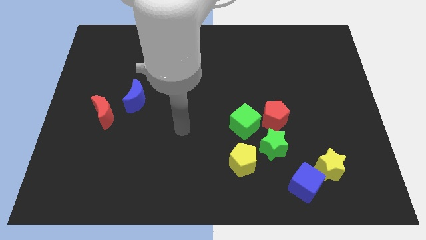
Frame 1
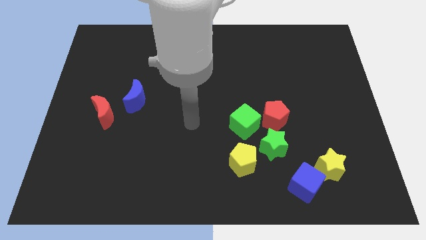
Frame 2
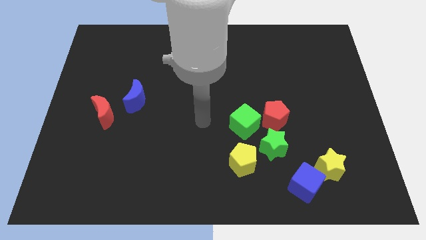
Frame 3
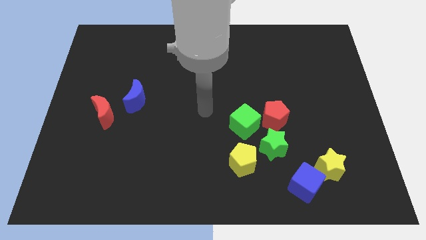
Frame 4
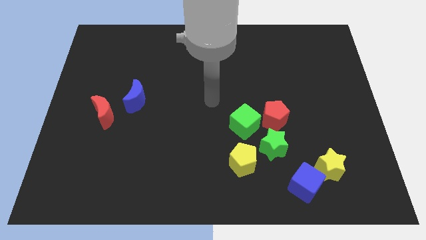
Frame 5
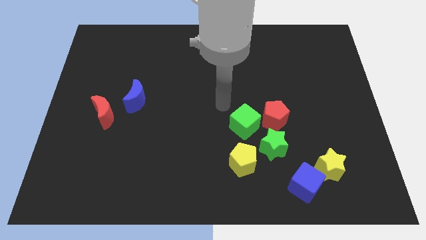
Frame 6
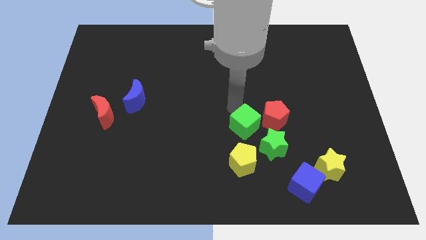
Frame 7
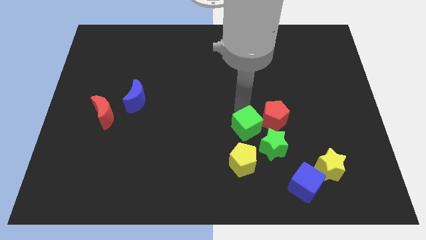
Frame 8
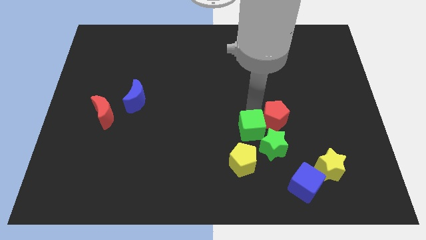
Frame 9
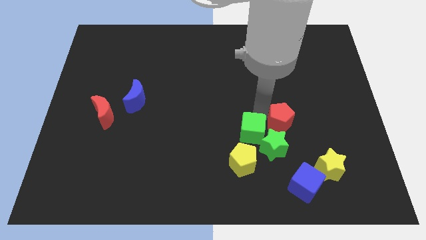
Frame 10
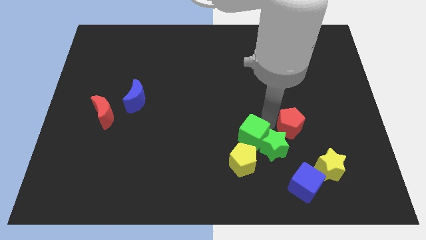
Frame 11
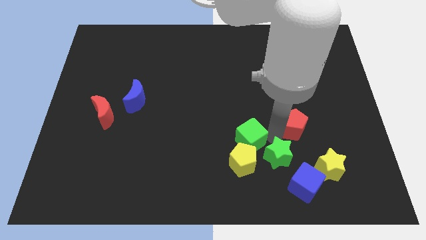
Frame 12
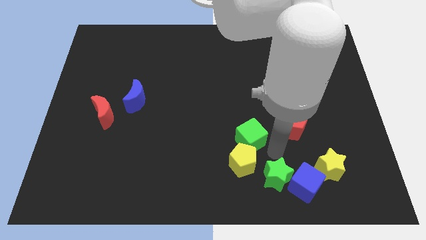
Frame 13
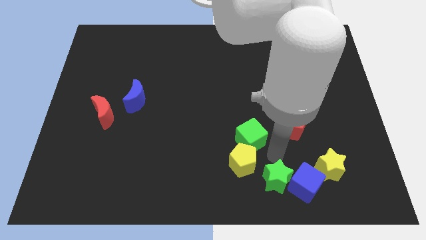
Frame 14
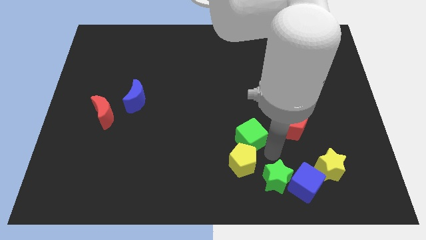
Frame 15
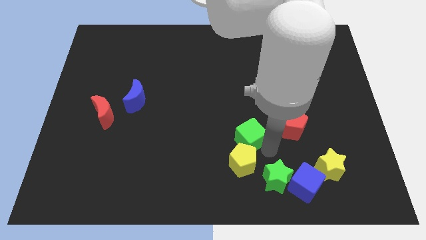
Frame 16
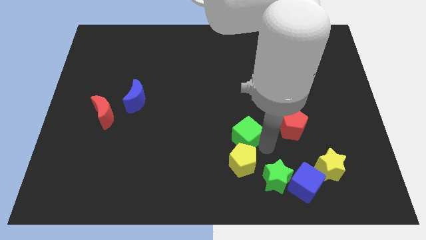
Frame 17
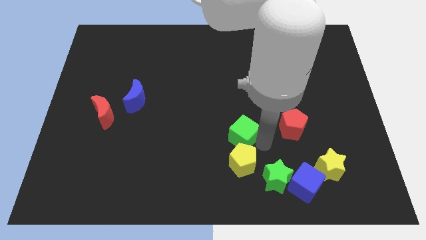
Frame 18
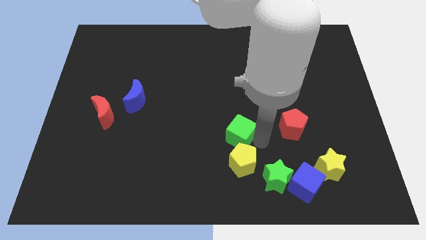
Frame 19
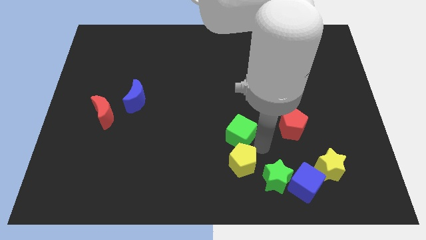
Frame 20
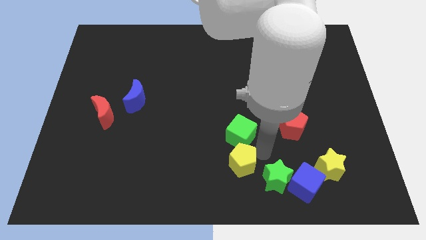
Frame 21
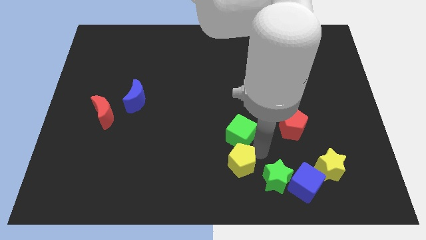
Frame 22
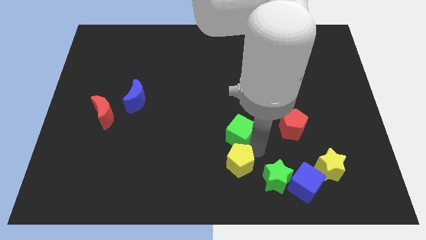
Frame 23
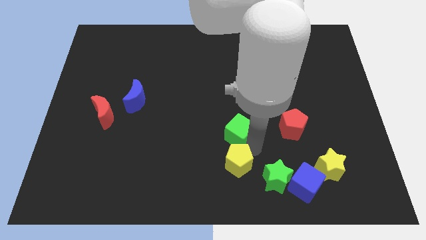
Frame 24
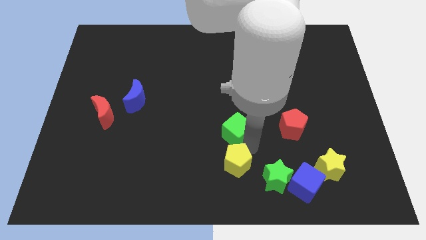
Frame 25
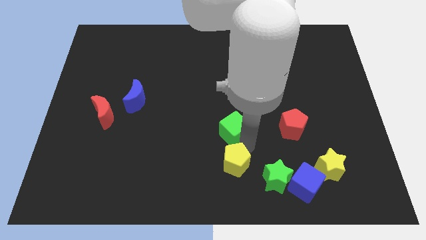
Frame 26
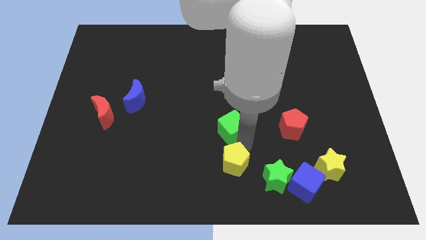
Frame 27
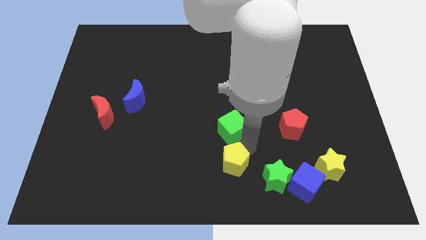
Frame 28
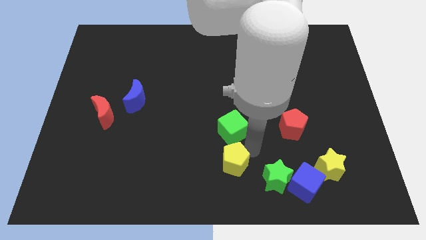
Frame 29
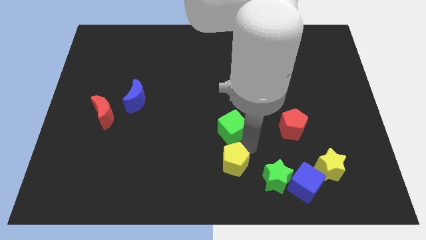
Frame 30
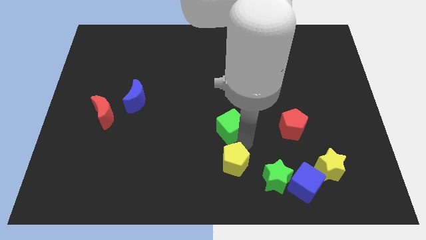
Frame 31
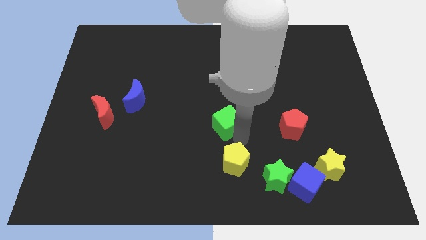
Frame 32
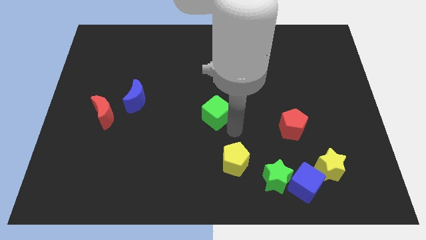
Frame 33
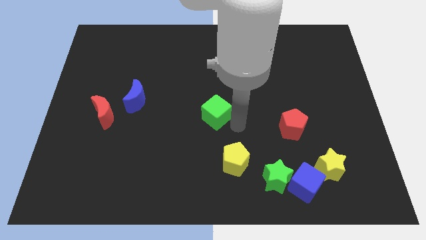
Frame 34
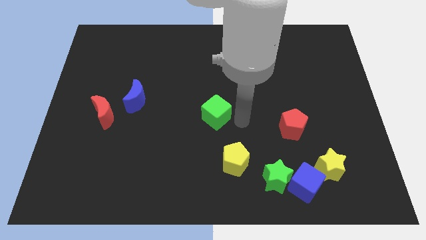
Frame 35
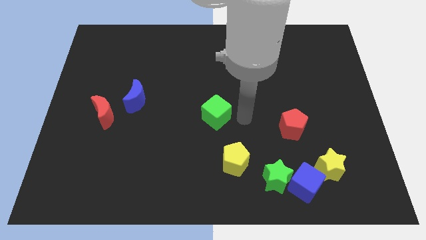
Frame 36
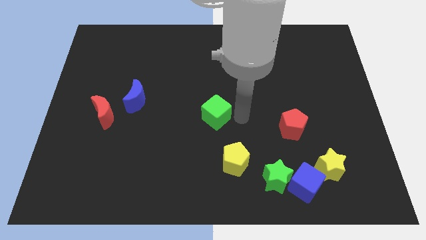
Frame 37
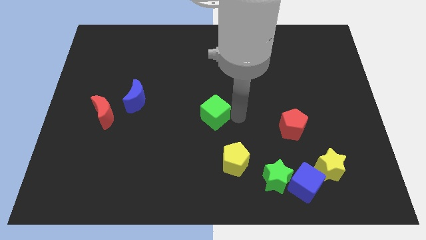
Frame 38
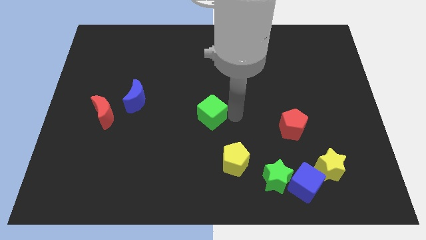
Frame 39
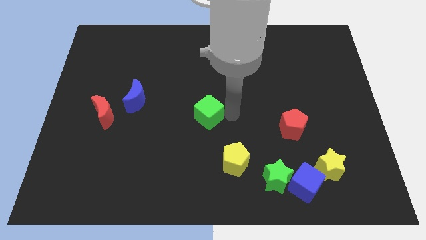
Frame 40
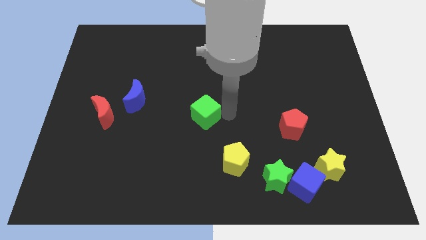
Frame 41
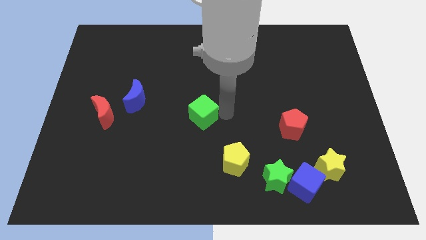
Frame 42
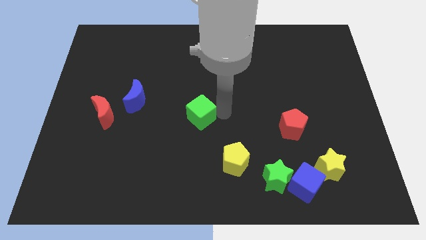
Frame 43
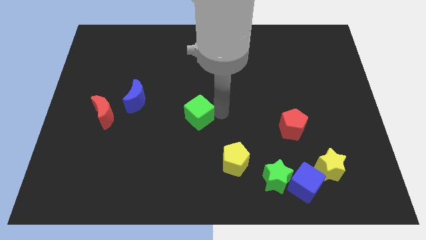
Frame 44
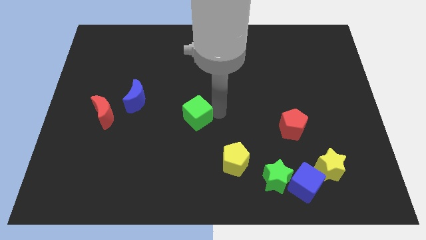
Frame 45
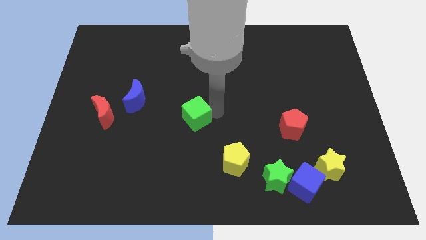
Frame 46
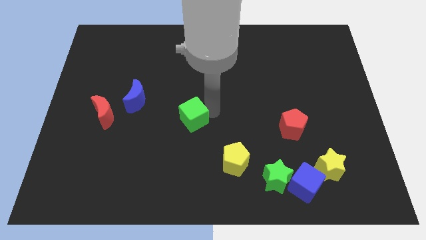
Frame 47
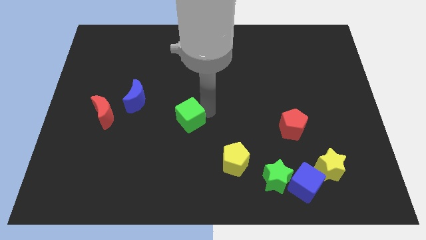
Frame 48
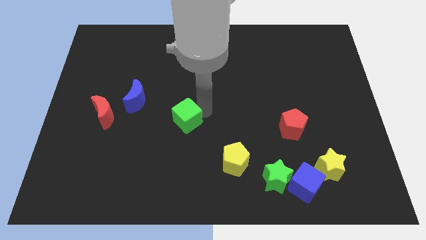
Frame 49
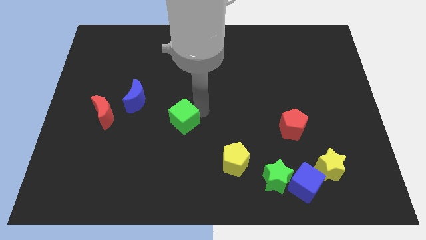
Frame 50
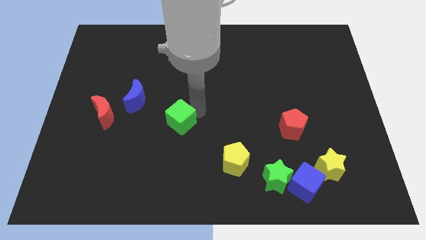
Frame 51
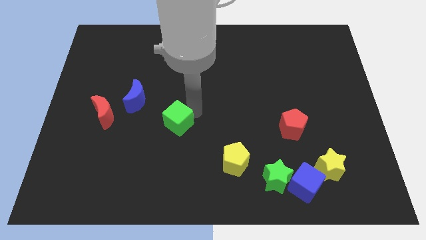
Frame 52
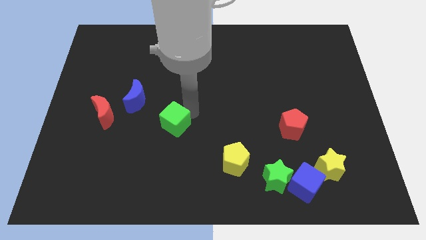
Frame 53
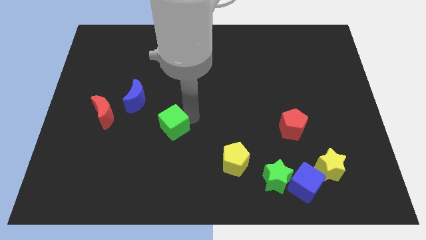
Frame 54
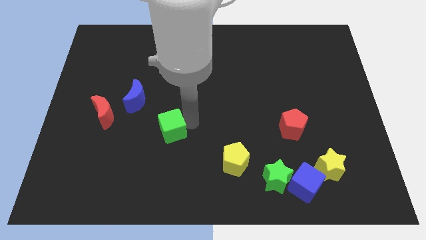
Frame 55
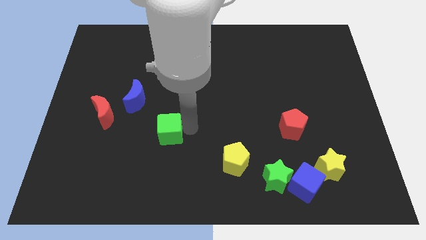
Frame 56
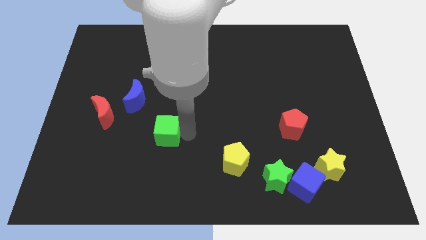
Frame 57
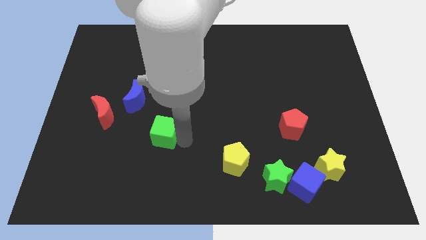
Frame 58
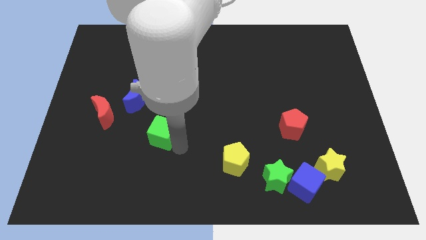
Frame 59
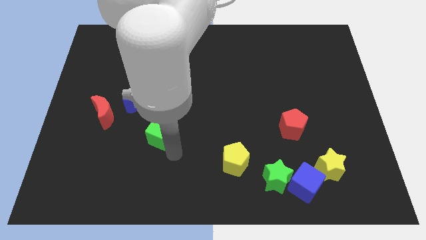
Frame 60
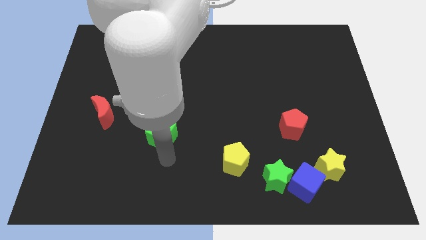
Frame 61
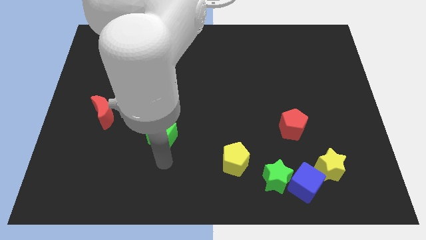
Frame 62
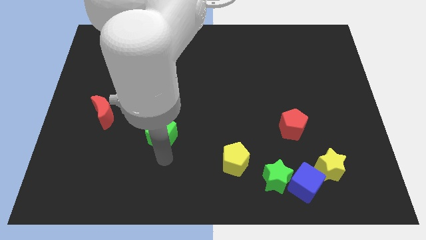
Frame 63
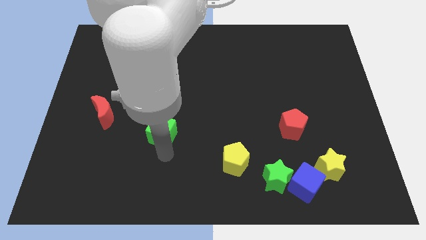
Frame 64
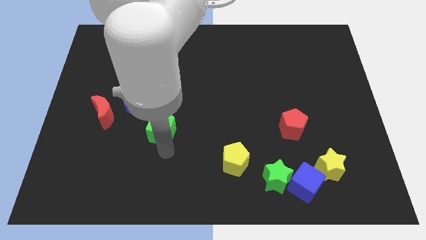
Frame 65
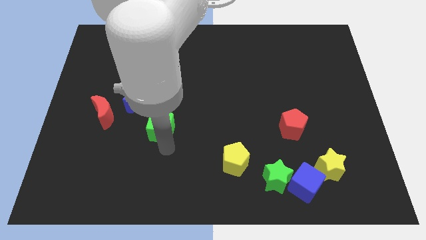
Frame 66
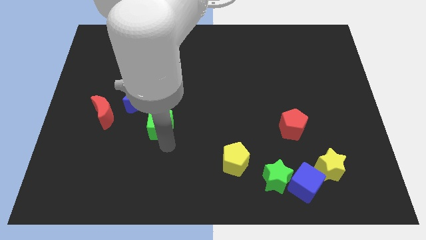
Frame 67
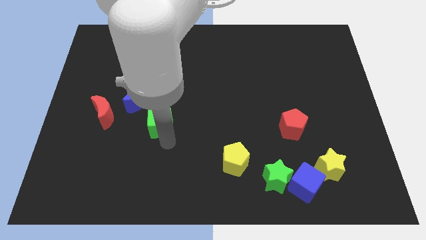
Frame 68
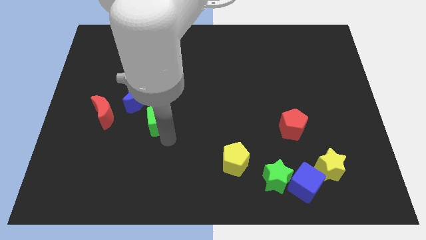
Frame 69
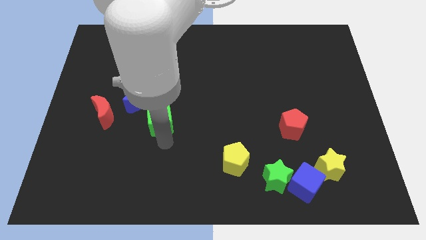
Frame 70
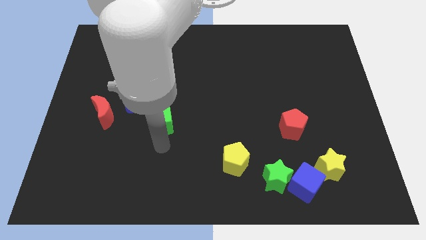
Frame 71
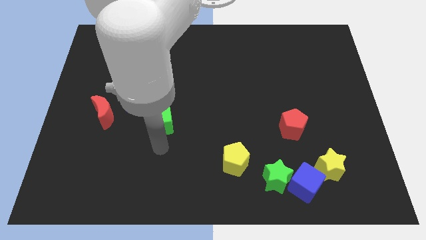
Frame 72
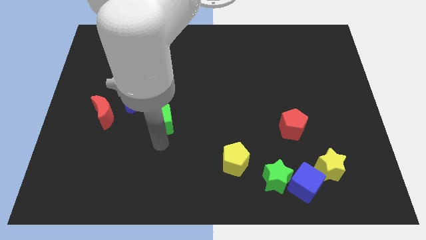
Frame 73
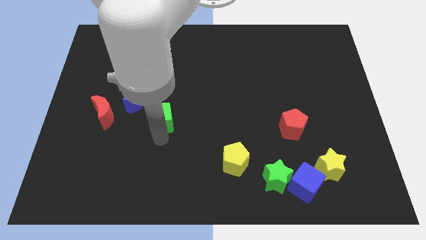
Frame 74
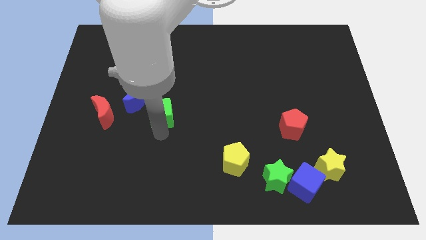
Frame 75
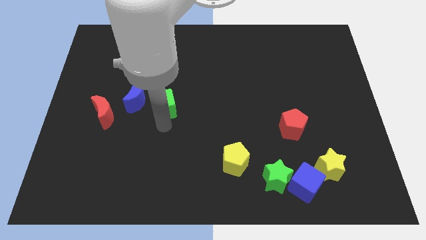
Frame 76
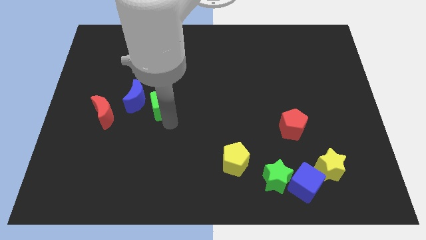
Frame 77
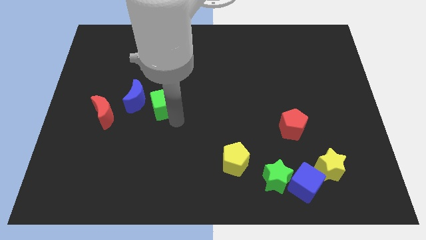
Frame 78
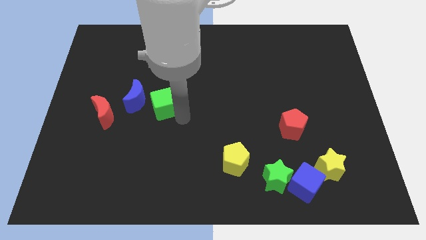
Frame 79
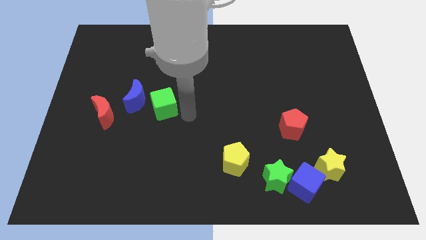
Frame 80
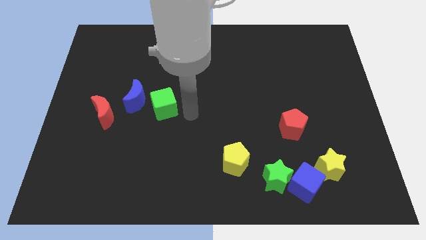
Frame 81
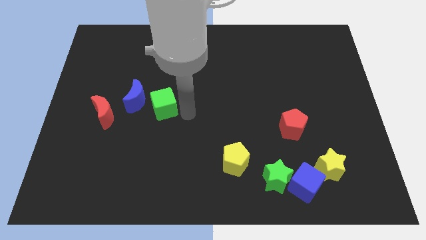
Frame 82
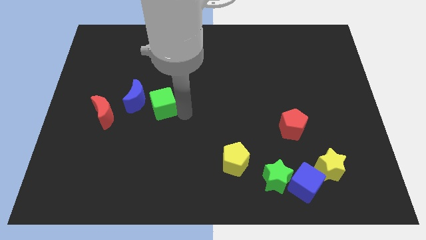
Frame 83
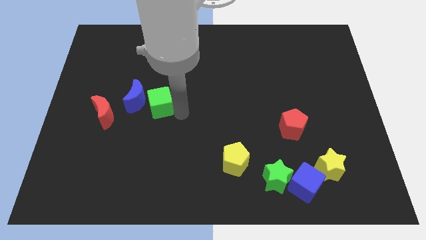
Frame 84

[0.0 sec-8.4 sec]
push the green cube close to the blue moon
